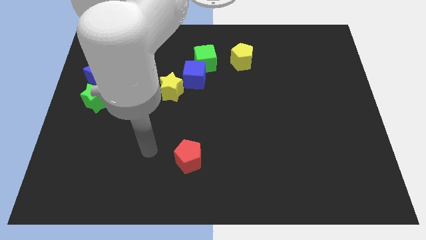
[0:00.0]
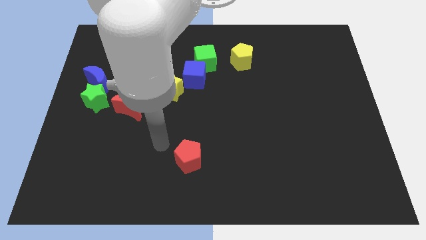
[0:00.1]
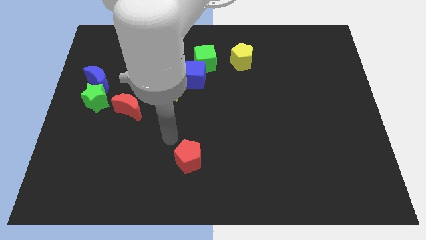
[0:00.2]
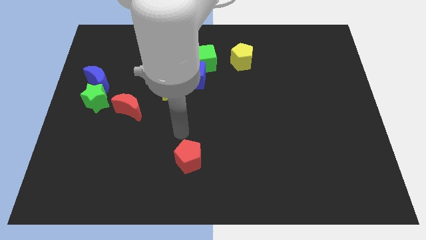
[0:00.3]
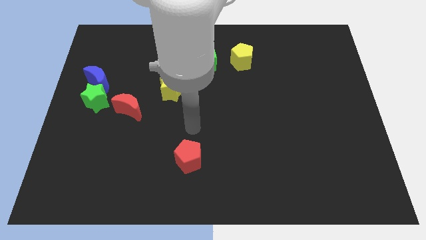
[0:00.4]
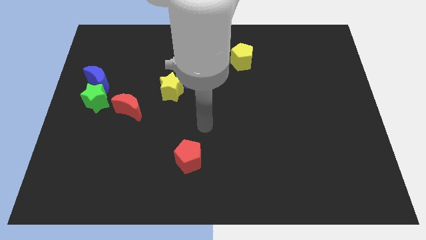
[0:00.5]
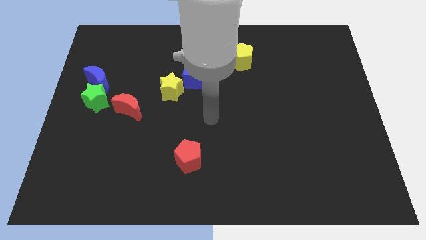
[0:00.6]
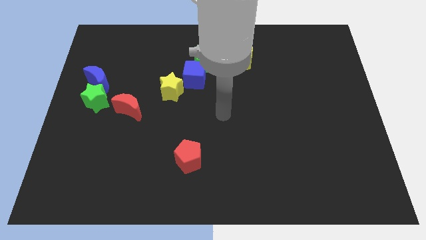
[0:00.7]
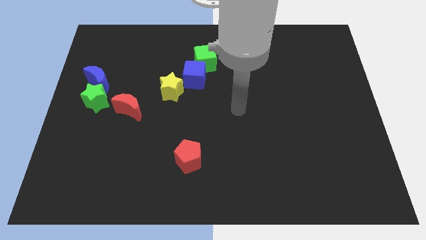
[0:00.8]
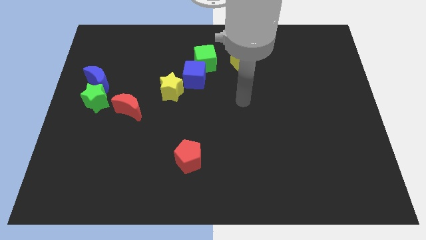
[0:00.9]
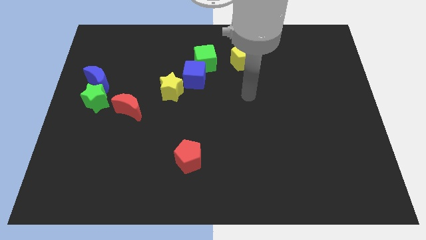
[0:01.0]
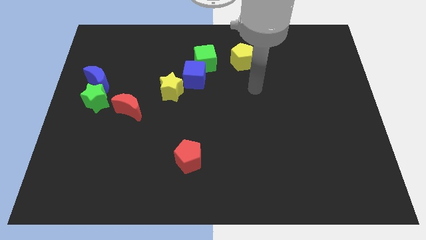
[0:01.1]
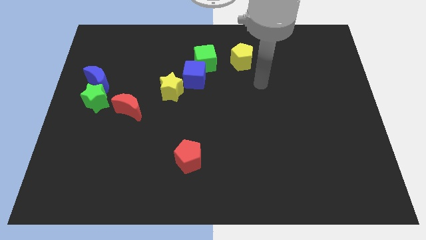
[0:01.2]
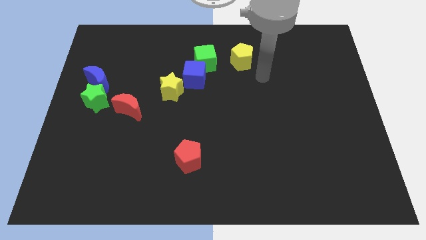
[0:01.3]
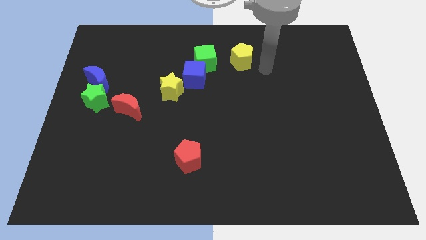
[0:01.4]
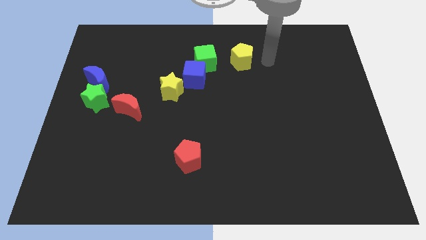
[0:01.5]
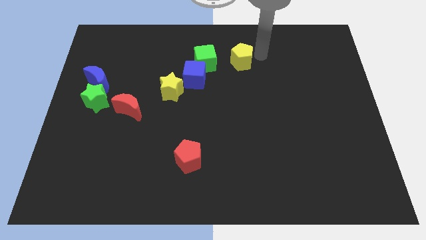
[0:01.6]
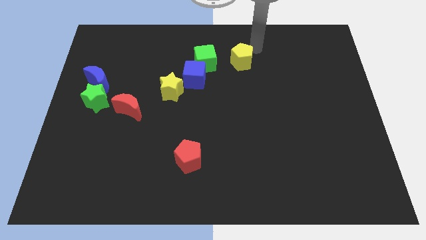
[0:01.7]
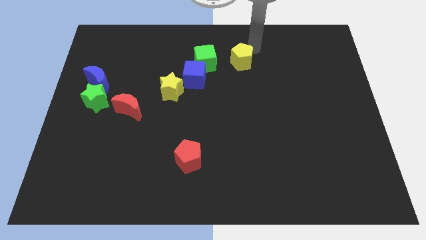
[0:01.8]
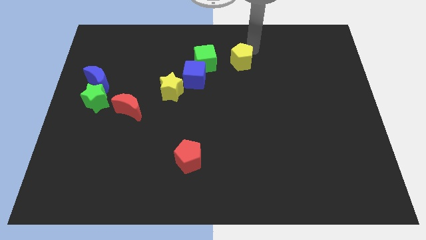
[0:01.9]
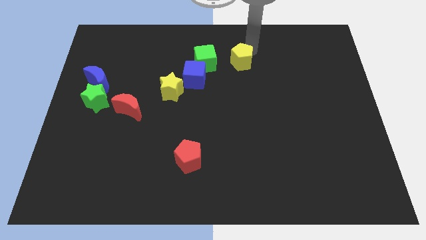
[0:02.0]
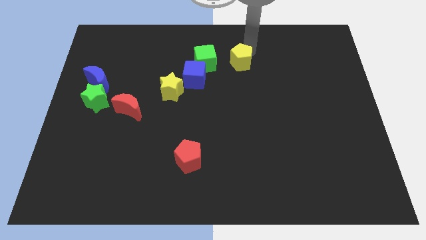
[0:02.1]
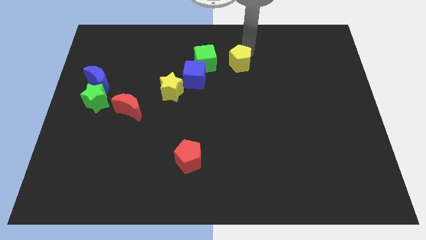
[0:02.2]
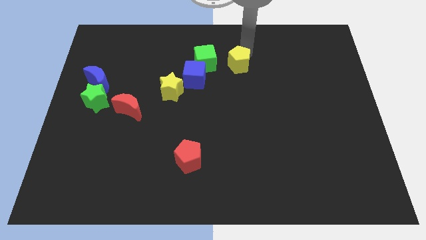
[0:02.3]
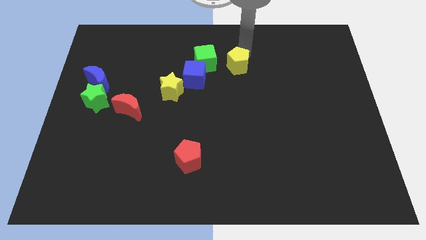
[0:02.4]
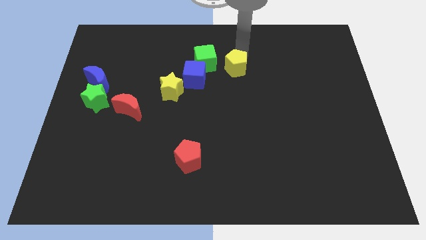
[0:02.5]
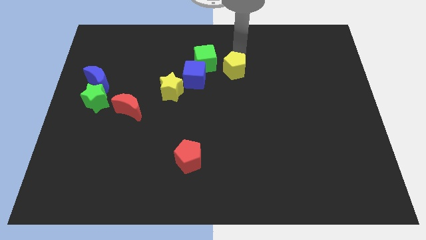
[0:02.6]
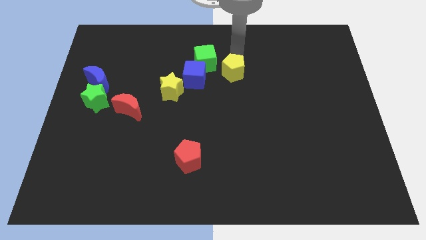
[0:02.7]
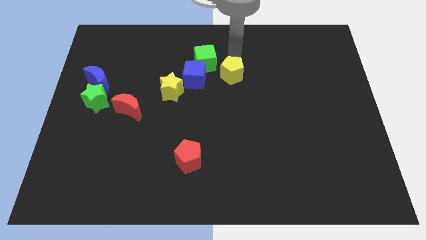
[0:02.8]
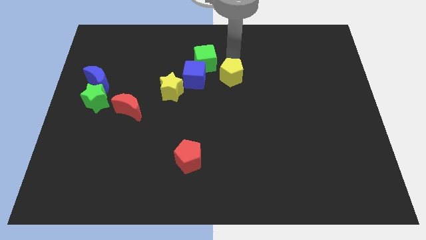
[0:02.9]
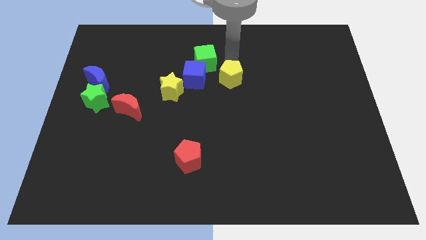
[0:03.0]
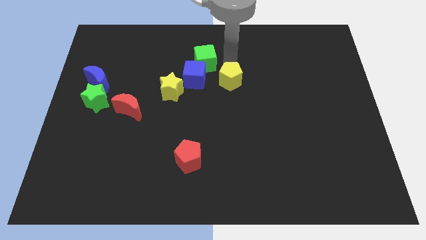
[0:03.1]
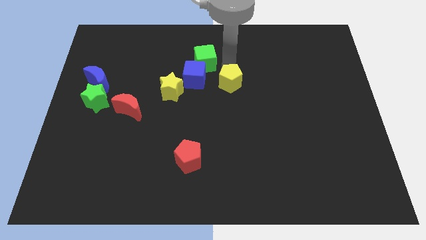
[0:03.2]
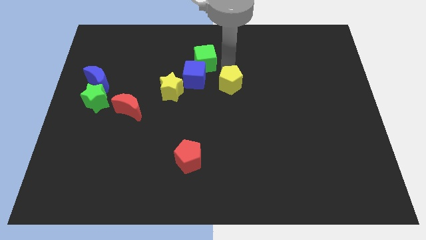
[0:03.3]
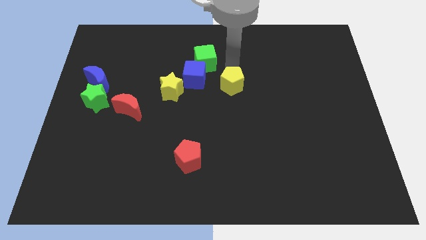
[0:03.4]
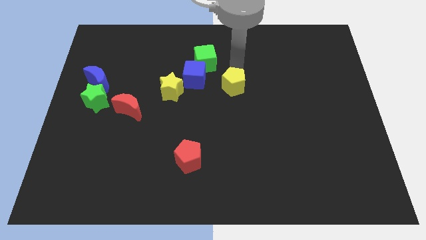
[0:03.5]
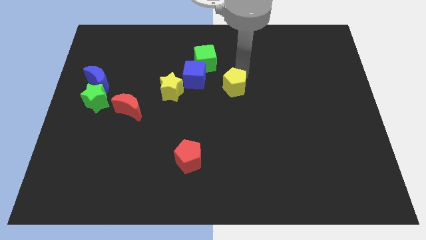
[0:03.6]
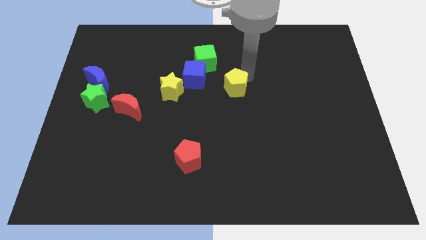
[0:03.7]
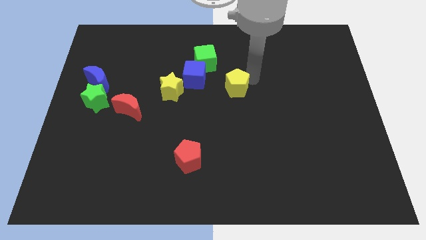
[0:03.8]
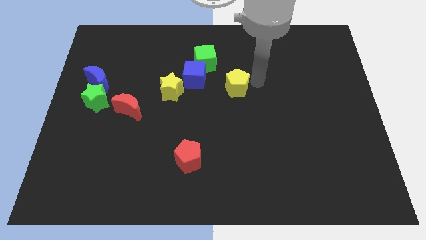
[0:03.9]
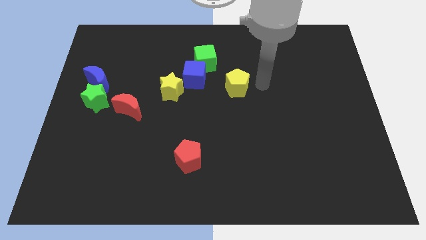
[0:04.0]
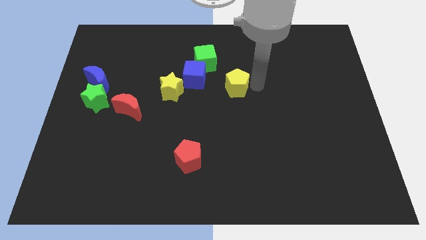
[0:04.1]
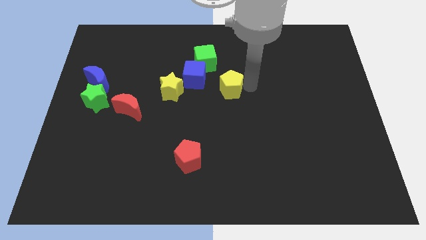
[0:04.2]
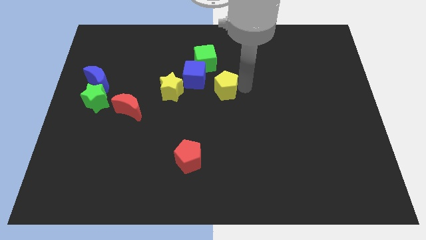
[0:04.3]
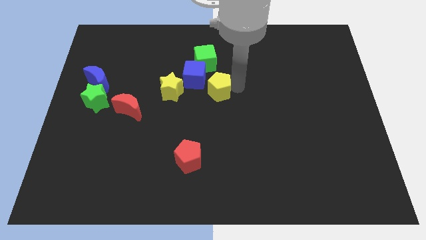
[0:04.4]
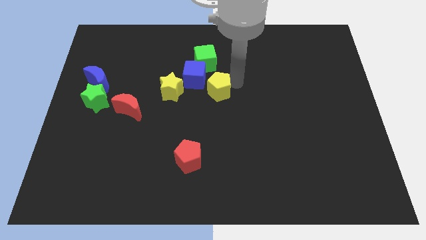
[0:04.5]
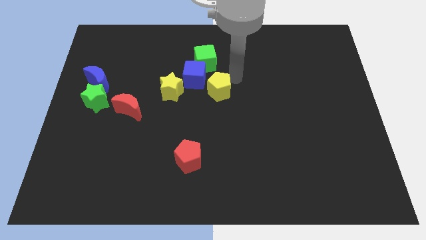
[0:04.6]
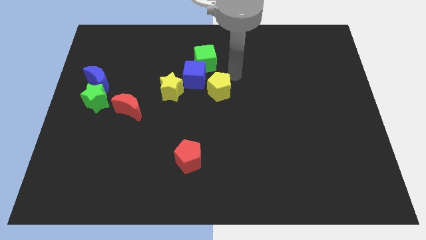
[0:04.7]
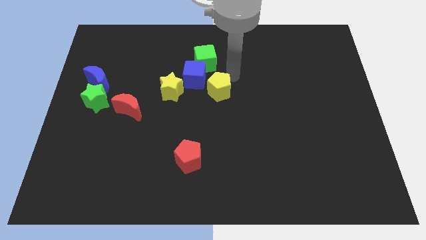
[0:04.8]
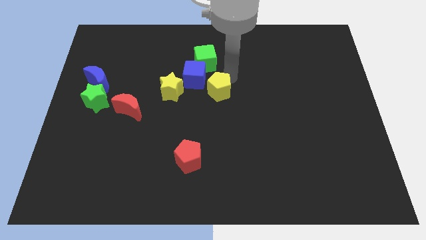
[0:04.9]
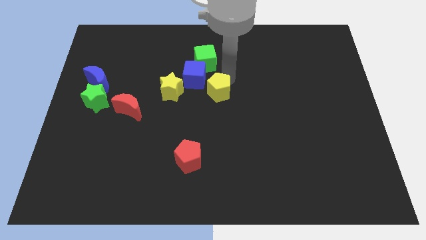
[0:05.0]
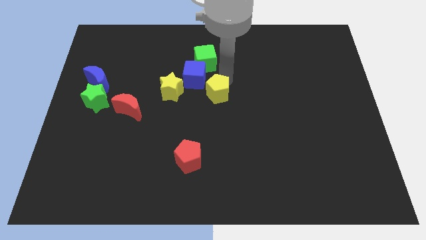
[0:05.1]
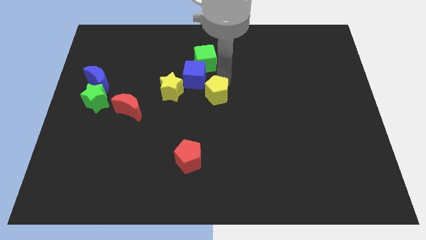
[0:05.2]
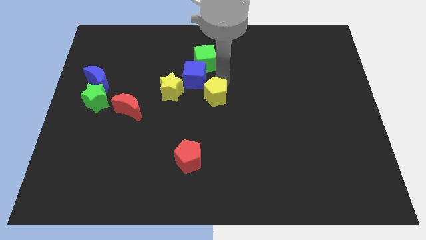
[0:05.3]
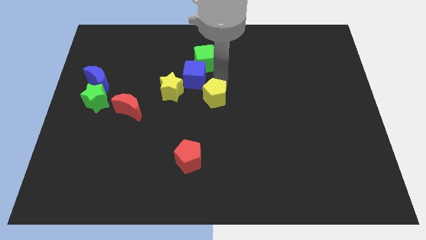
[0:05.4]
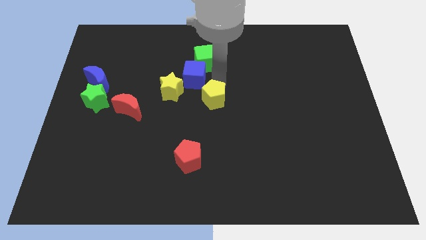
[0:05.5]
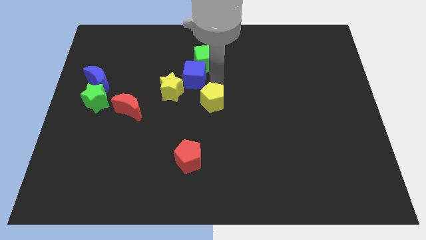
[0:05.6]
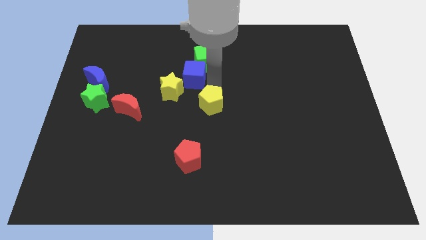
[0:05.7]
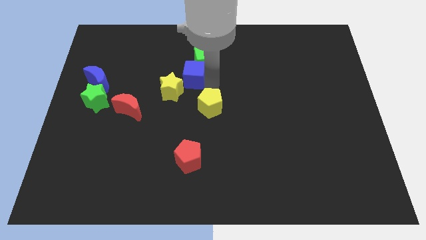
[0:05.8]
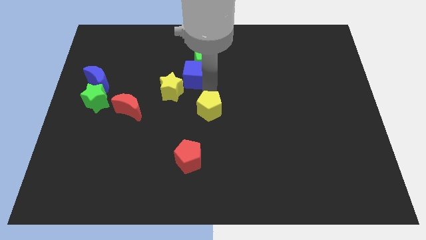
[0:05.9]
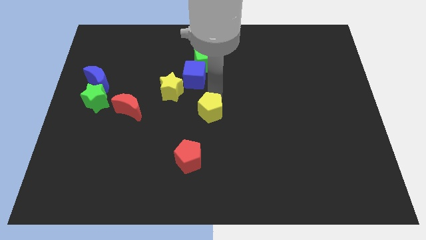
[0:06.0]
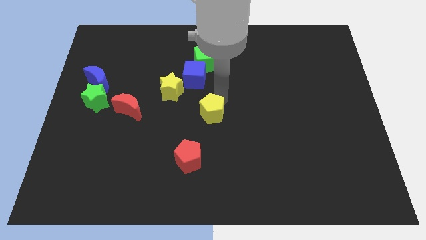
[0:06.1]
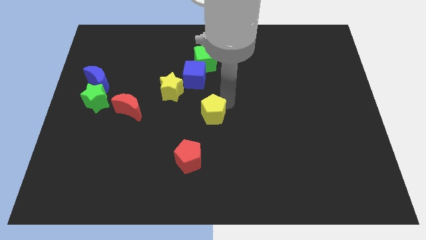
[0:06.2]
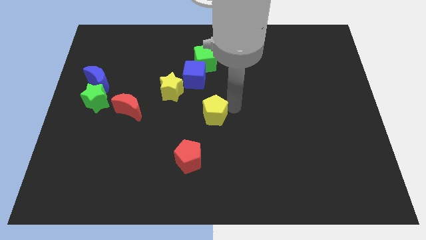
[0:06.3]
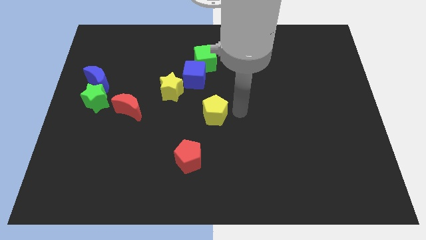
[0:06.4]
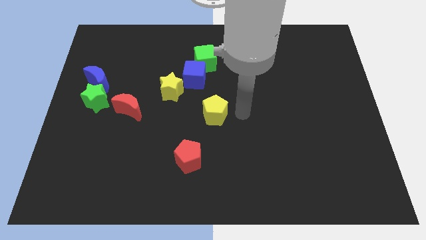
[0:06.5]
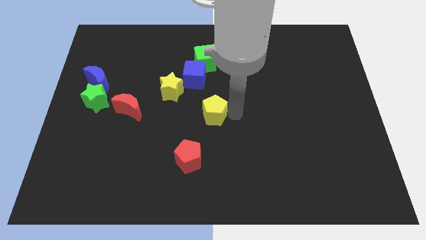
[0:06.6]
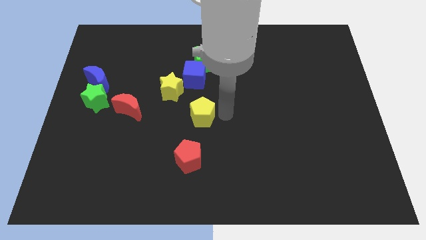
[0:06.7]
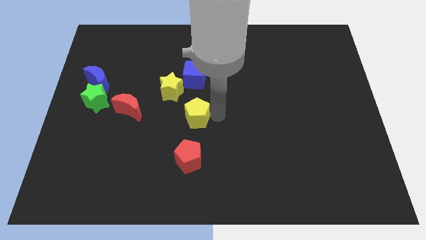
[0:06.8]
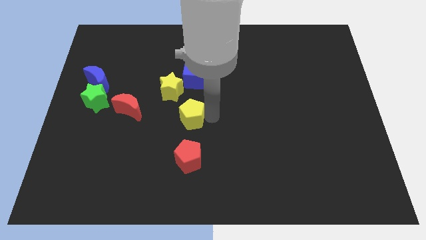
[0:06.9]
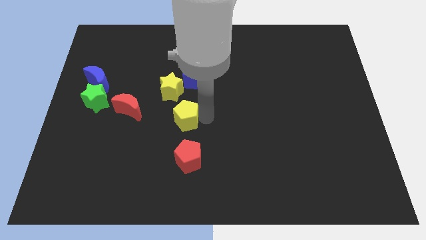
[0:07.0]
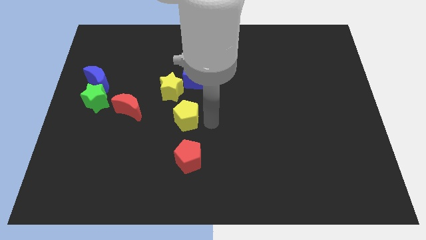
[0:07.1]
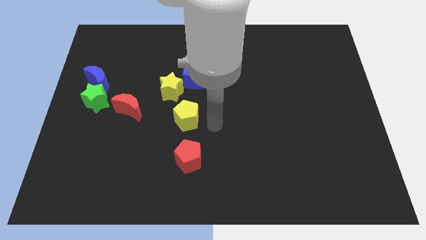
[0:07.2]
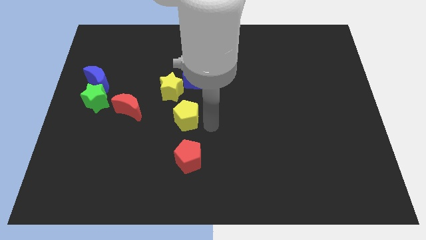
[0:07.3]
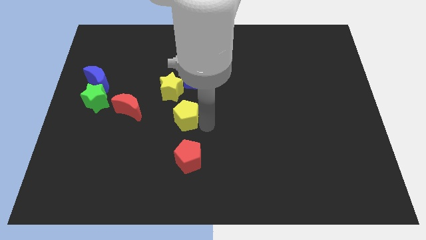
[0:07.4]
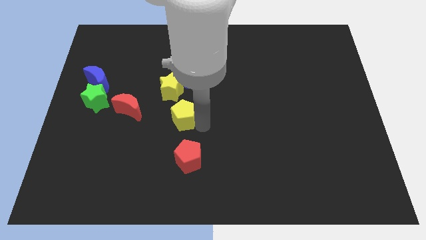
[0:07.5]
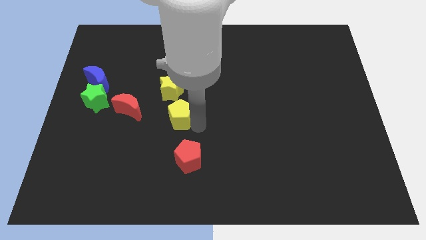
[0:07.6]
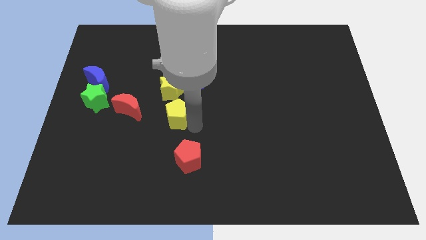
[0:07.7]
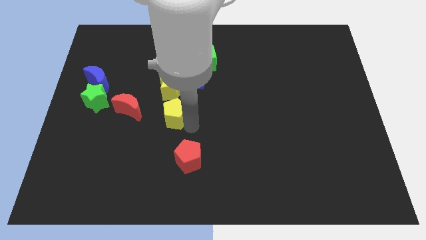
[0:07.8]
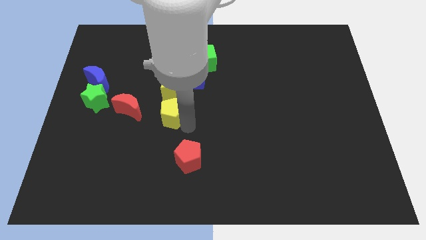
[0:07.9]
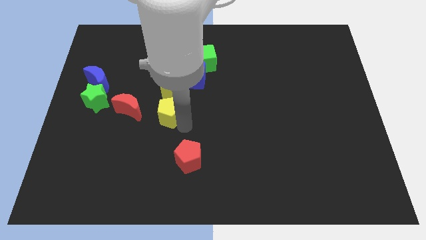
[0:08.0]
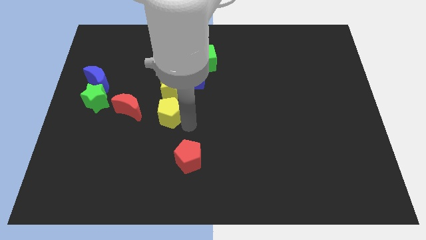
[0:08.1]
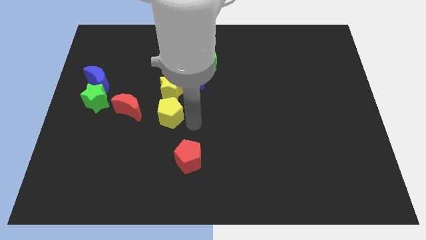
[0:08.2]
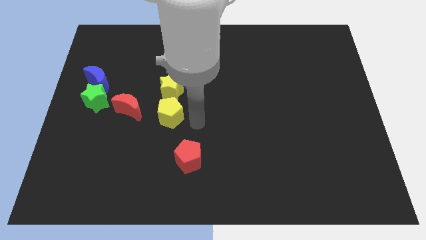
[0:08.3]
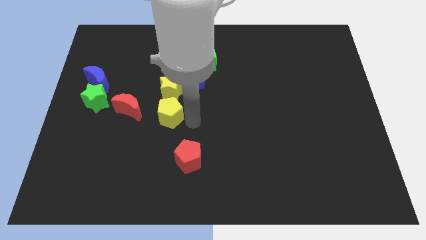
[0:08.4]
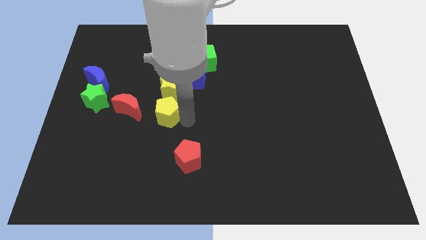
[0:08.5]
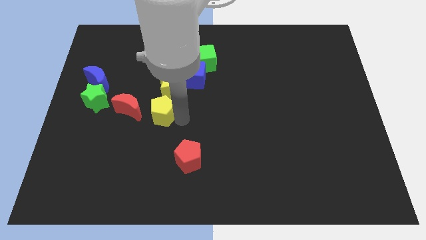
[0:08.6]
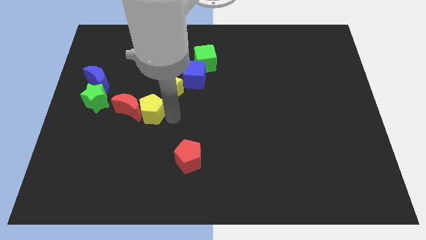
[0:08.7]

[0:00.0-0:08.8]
move the yellow pentagon next to the red moon
